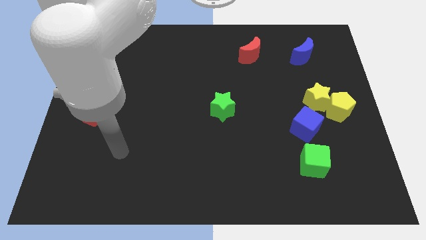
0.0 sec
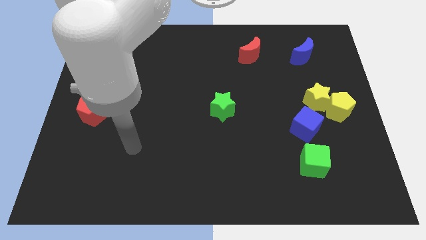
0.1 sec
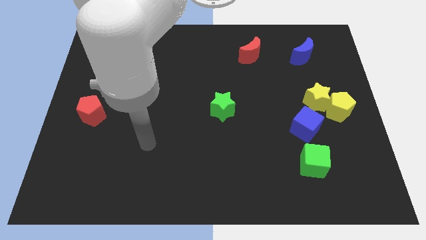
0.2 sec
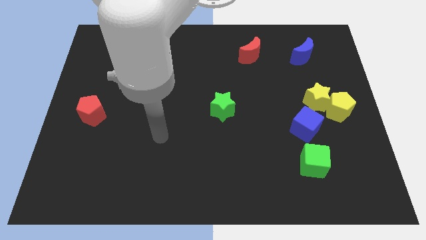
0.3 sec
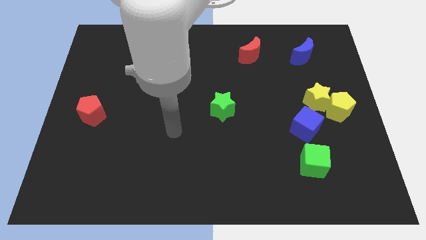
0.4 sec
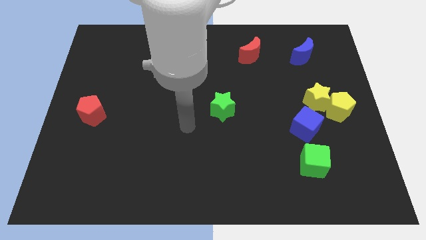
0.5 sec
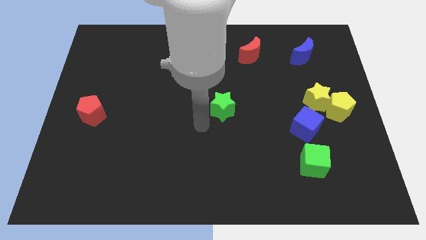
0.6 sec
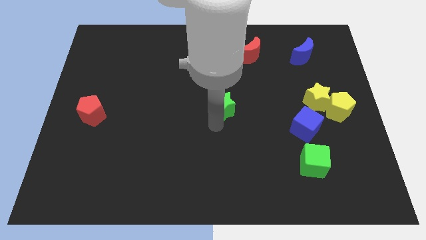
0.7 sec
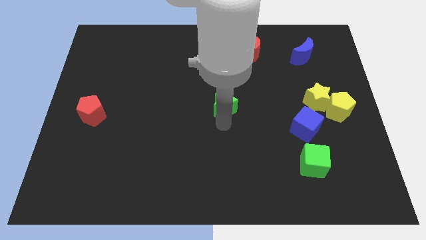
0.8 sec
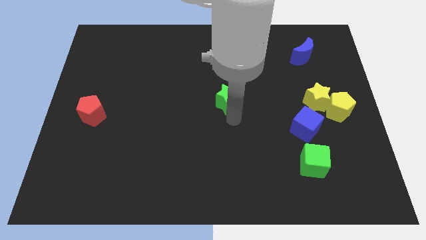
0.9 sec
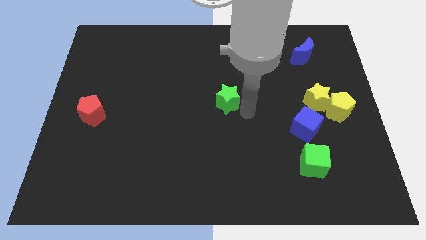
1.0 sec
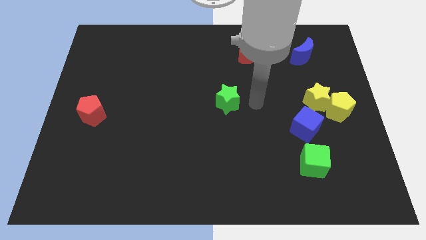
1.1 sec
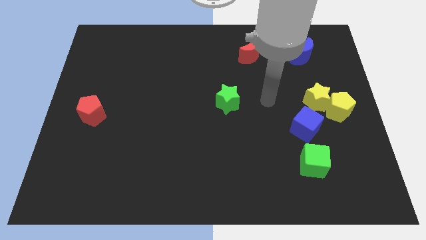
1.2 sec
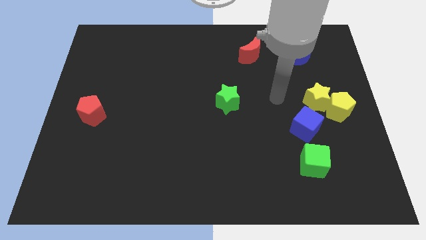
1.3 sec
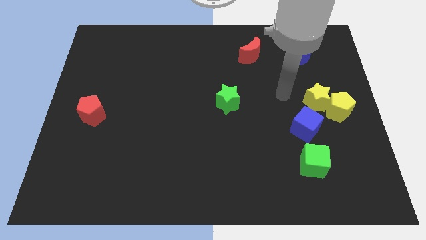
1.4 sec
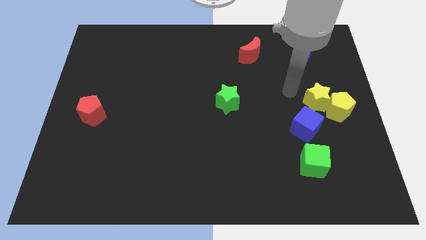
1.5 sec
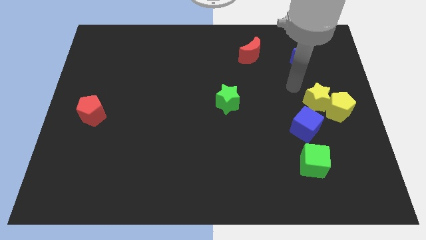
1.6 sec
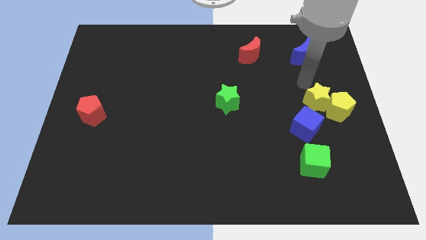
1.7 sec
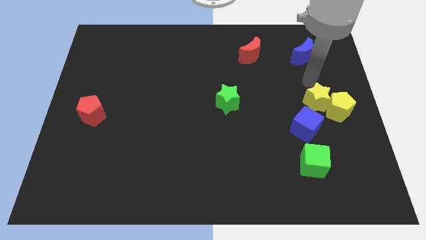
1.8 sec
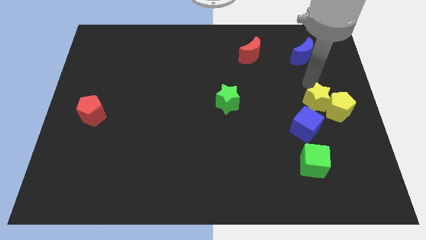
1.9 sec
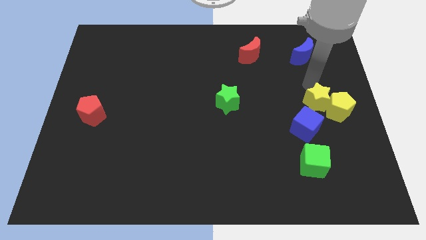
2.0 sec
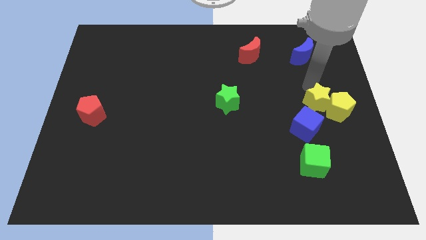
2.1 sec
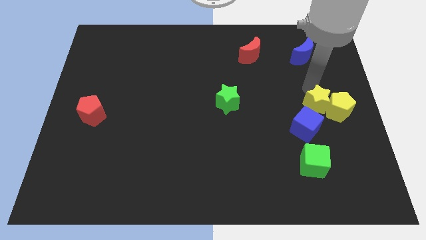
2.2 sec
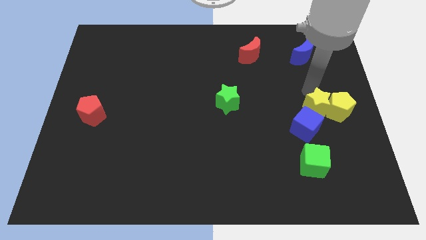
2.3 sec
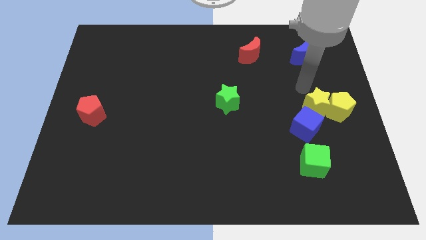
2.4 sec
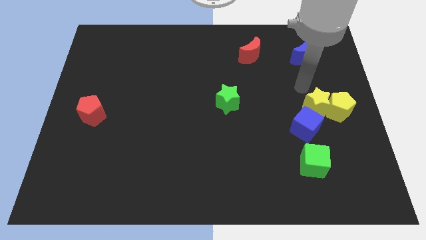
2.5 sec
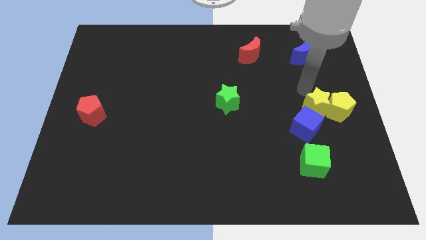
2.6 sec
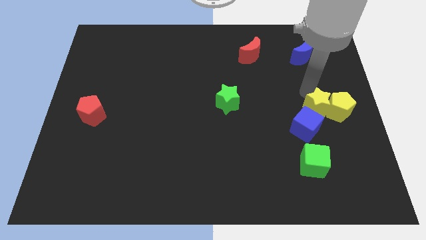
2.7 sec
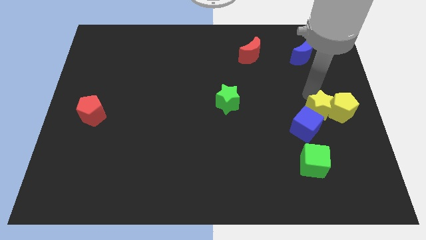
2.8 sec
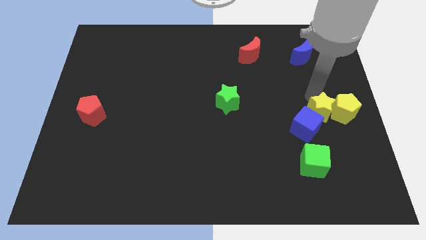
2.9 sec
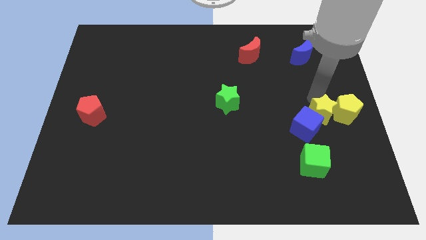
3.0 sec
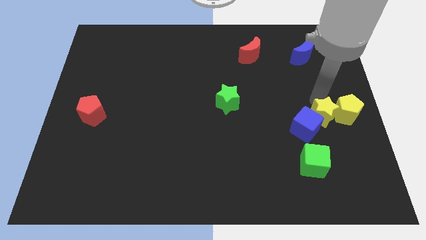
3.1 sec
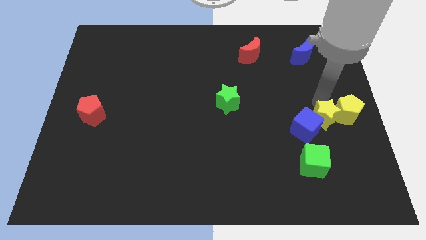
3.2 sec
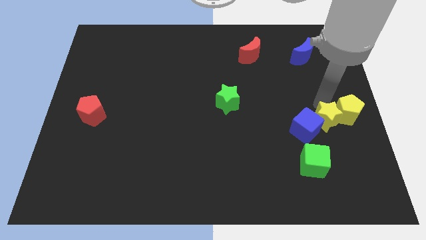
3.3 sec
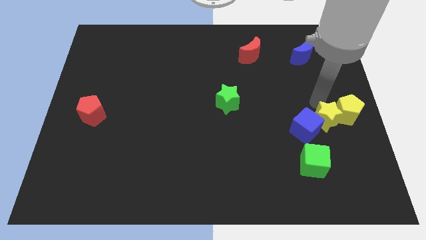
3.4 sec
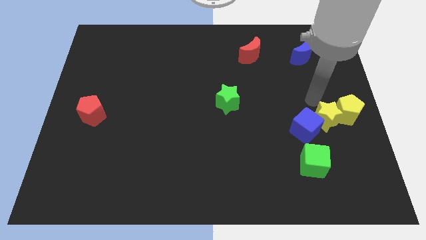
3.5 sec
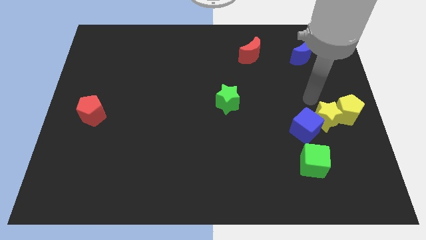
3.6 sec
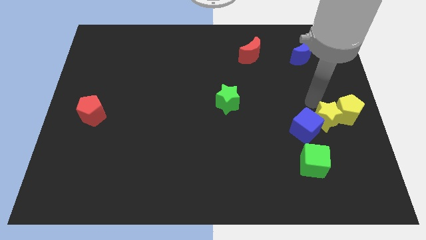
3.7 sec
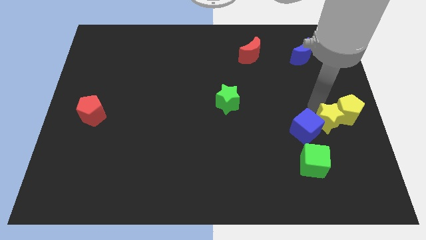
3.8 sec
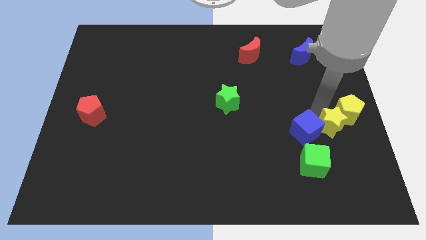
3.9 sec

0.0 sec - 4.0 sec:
slightly push the yellow star down

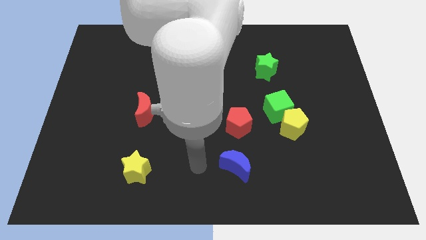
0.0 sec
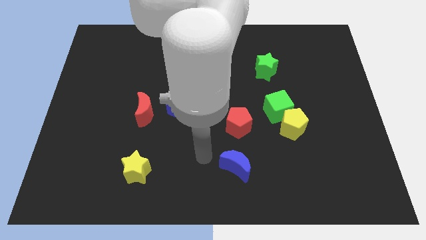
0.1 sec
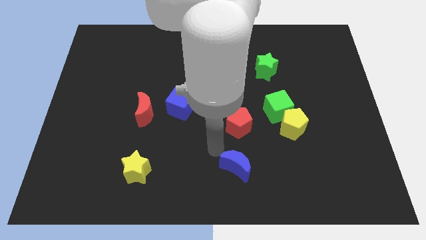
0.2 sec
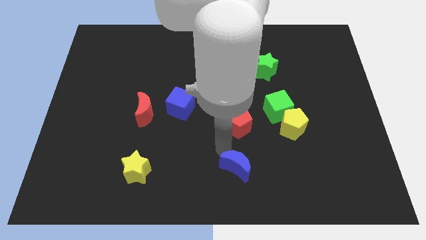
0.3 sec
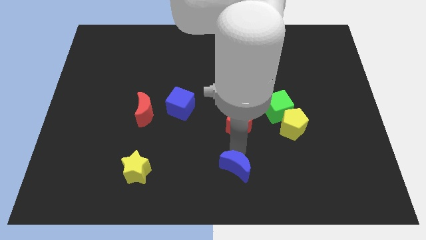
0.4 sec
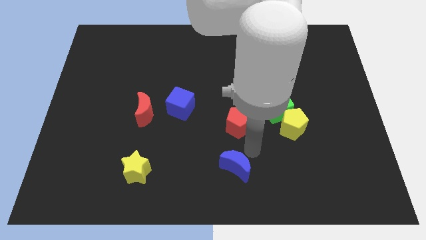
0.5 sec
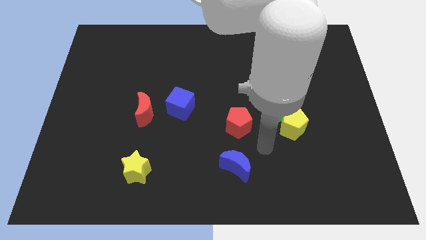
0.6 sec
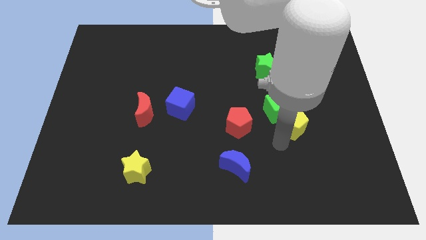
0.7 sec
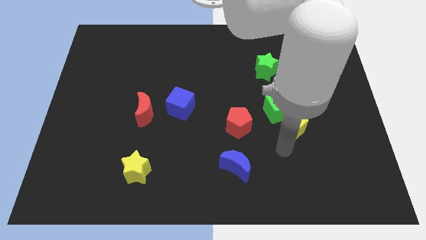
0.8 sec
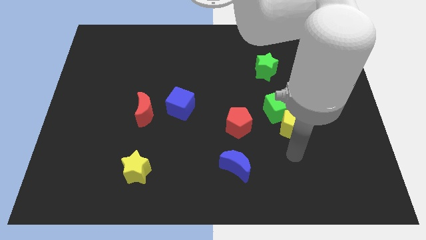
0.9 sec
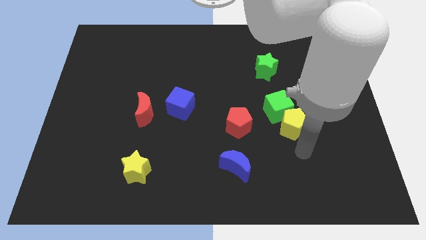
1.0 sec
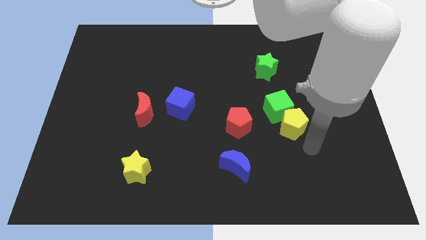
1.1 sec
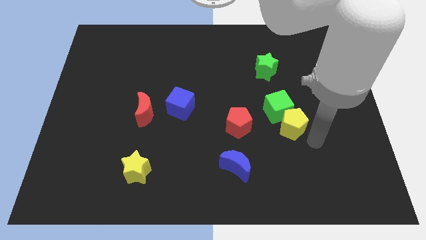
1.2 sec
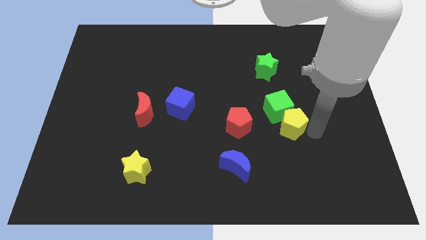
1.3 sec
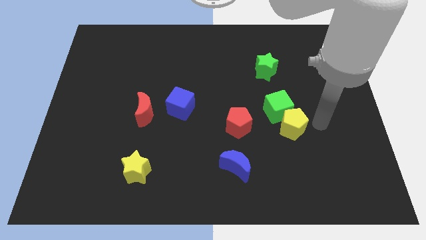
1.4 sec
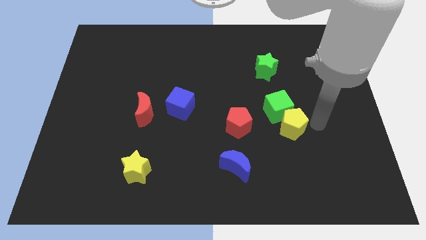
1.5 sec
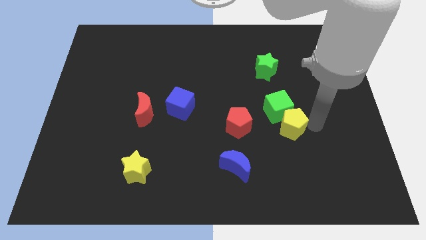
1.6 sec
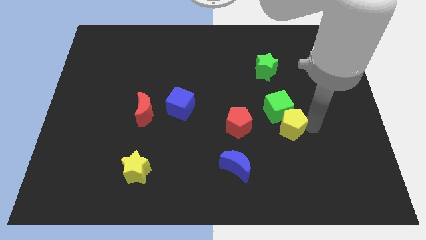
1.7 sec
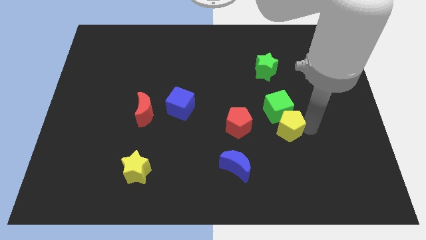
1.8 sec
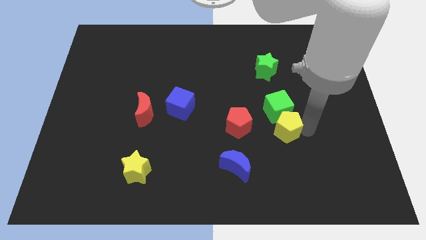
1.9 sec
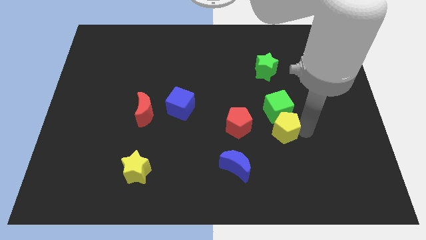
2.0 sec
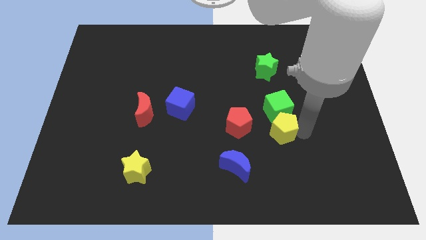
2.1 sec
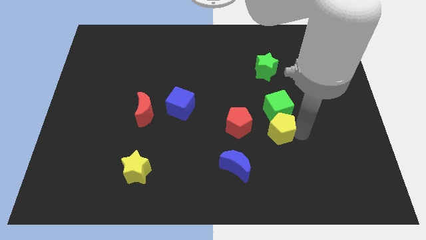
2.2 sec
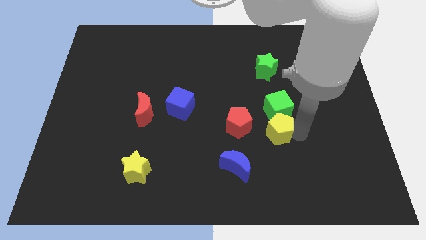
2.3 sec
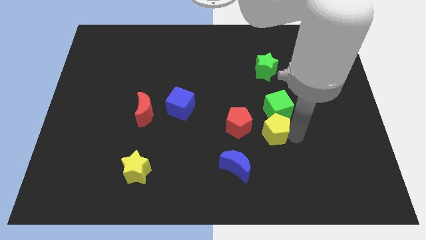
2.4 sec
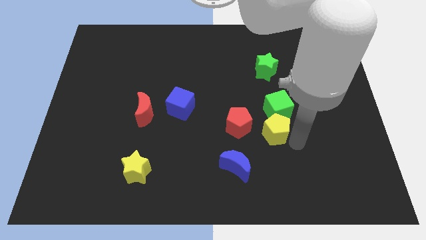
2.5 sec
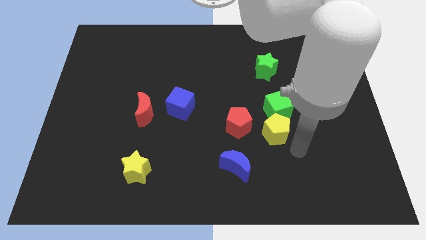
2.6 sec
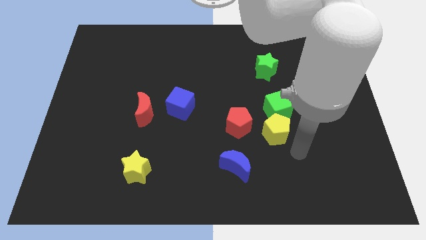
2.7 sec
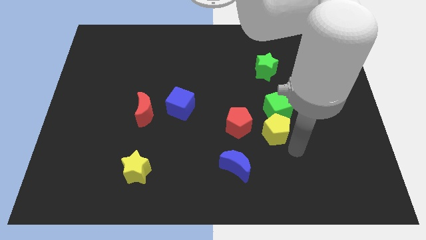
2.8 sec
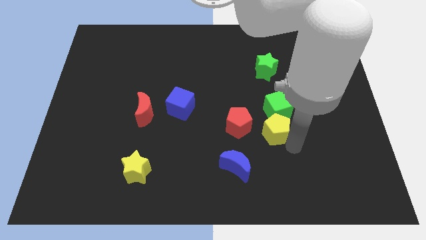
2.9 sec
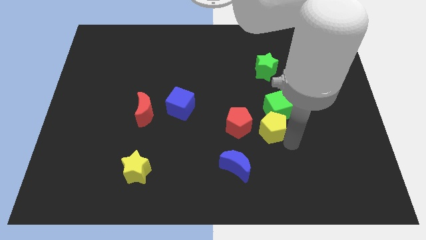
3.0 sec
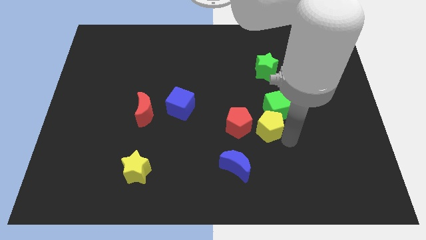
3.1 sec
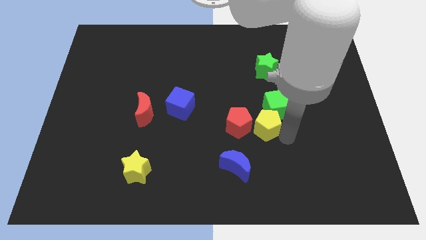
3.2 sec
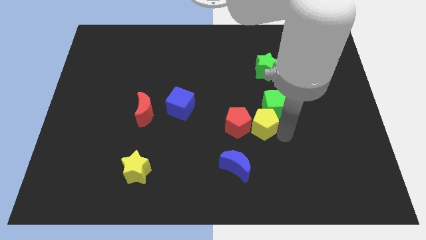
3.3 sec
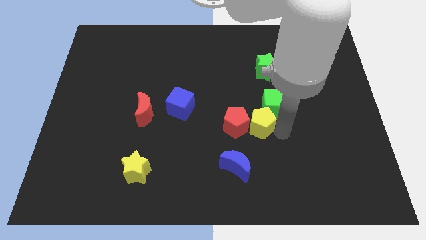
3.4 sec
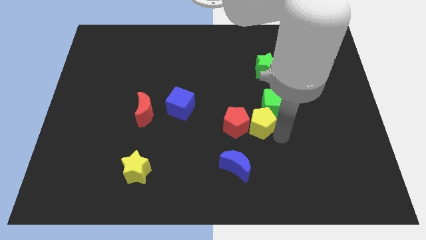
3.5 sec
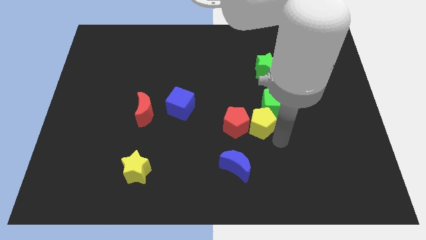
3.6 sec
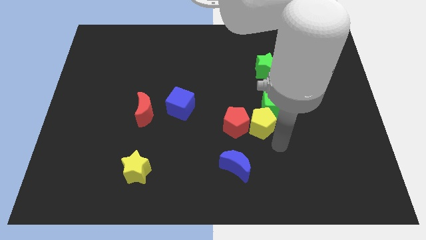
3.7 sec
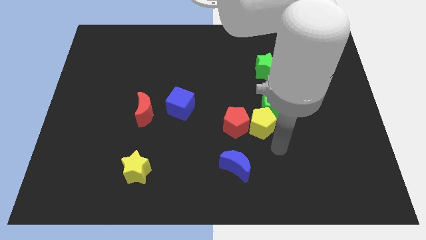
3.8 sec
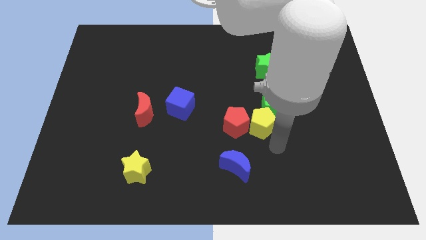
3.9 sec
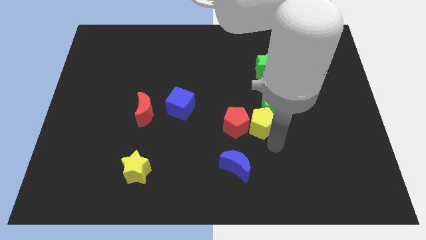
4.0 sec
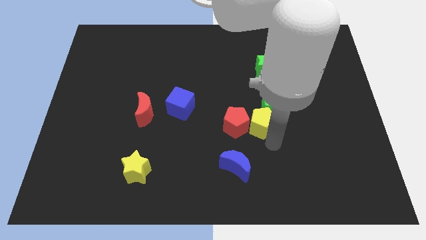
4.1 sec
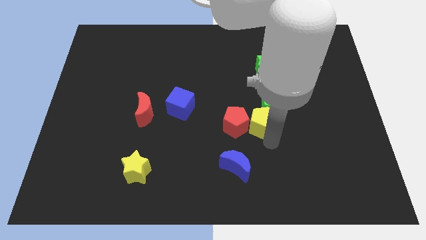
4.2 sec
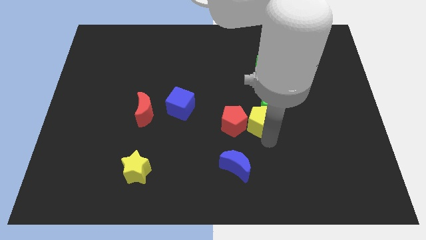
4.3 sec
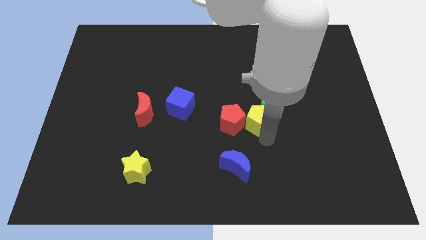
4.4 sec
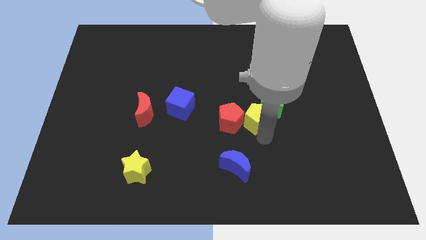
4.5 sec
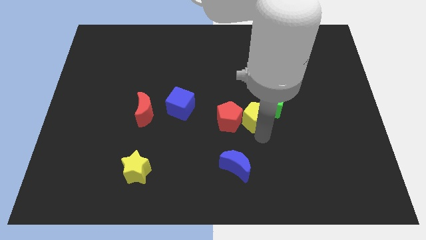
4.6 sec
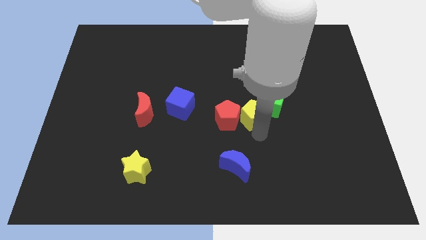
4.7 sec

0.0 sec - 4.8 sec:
slightly slide the yellow pentagon up and left
